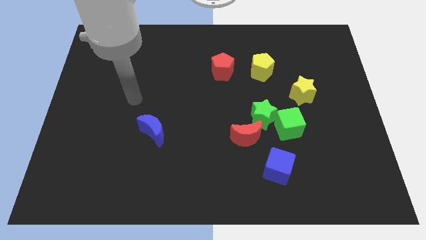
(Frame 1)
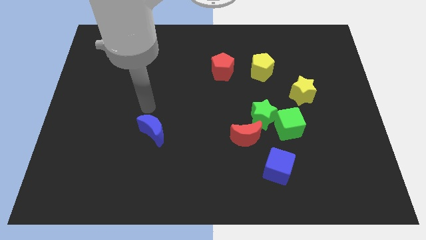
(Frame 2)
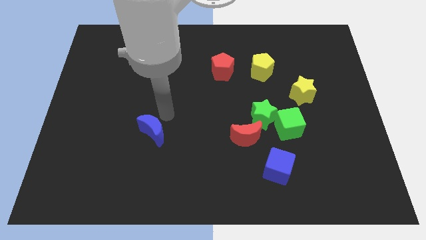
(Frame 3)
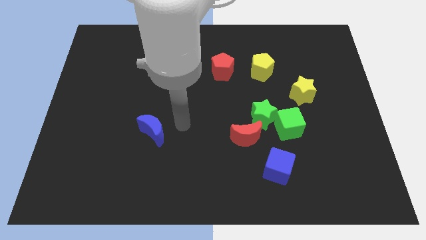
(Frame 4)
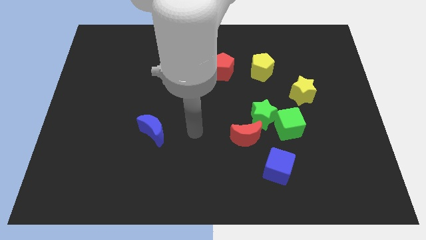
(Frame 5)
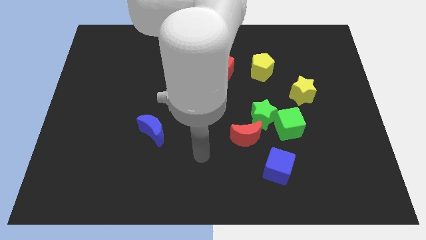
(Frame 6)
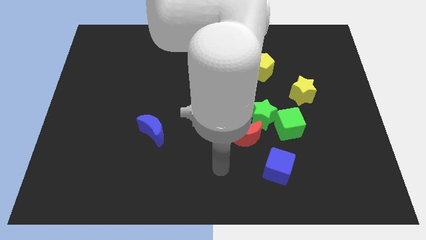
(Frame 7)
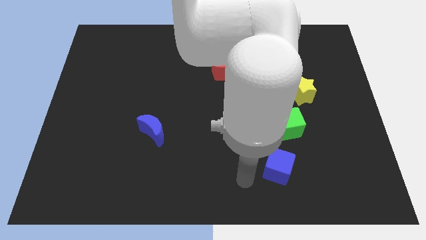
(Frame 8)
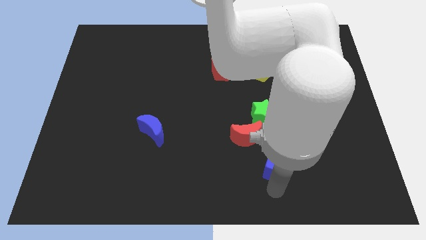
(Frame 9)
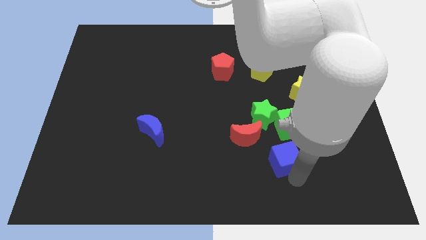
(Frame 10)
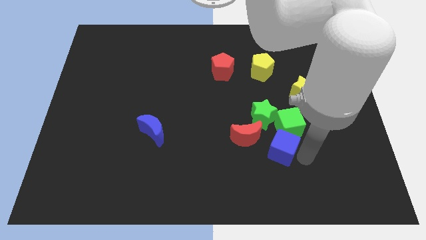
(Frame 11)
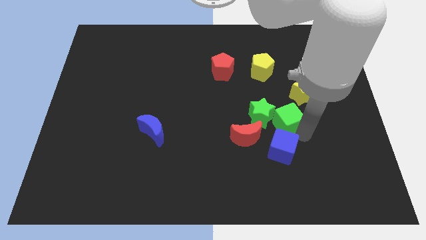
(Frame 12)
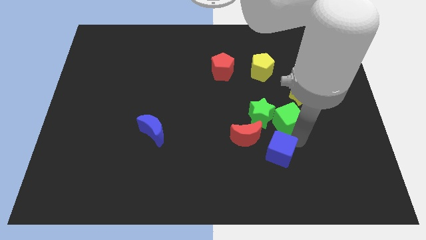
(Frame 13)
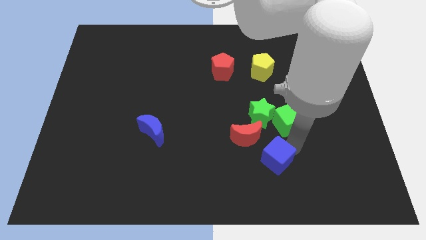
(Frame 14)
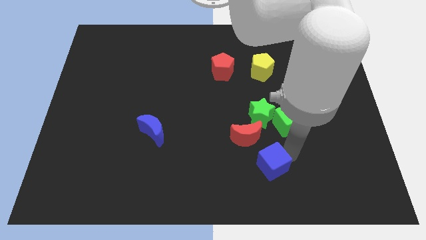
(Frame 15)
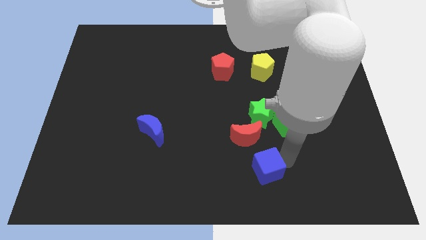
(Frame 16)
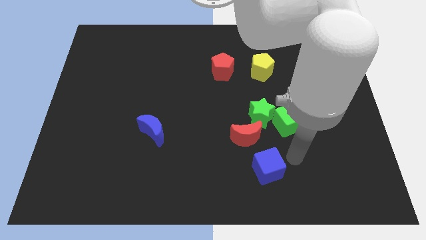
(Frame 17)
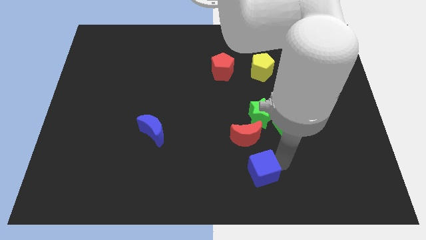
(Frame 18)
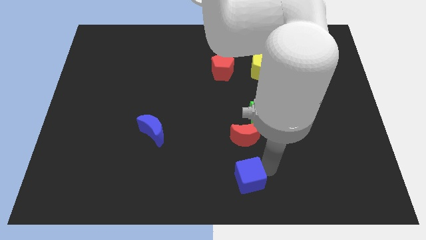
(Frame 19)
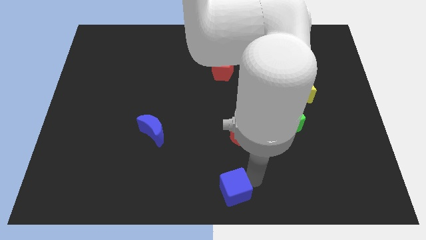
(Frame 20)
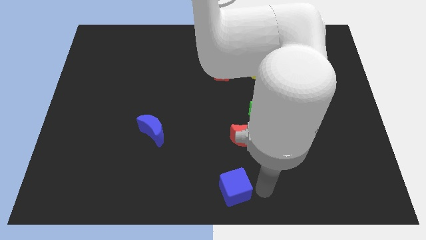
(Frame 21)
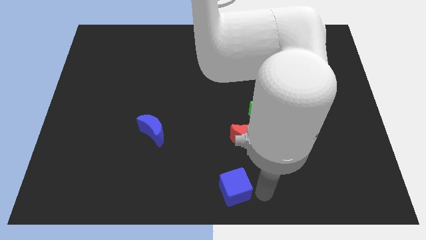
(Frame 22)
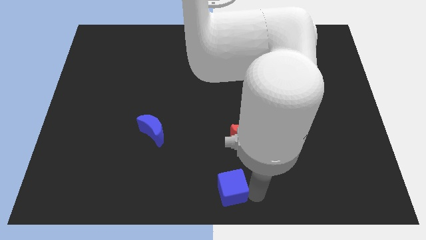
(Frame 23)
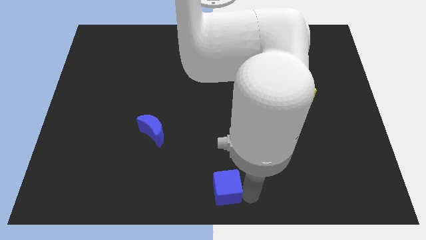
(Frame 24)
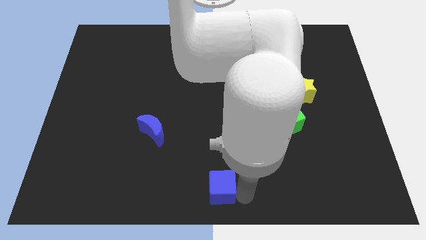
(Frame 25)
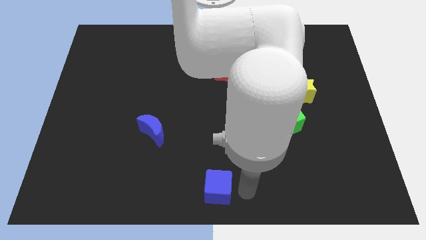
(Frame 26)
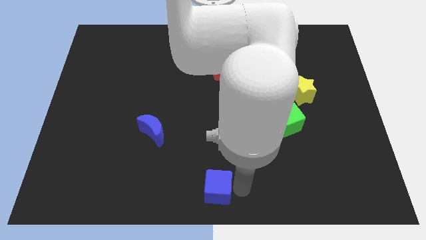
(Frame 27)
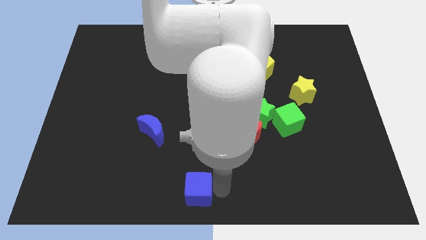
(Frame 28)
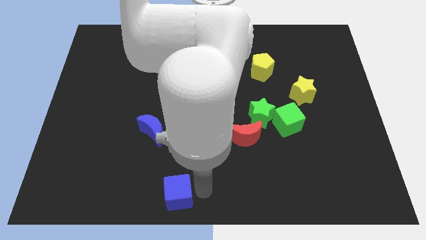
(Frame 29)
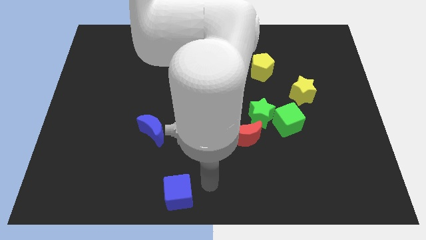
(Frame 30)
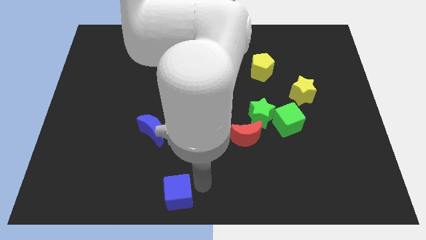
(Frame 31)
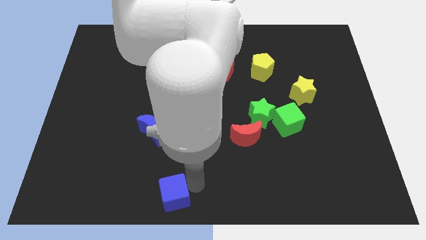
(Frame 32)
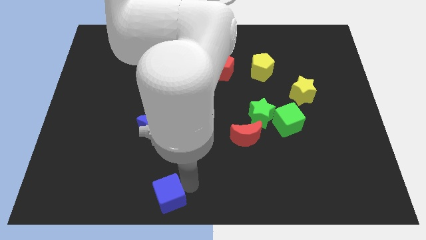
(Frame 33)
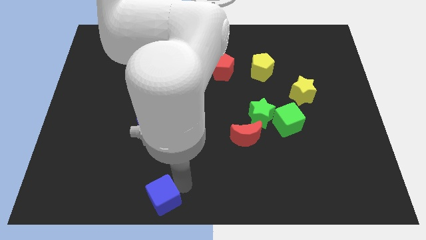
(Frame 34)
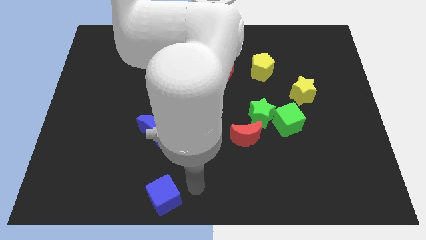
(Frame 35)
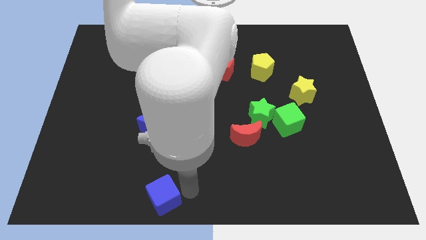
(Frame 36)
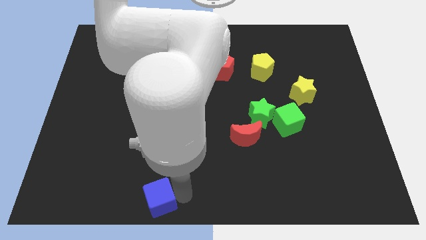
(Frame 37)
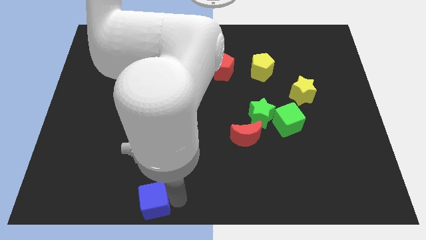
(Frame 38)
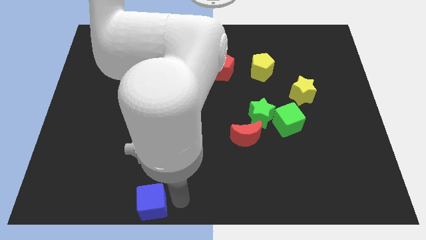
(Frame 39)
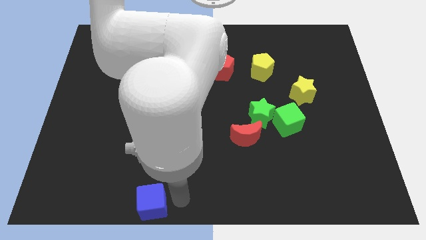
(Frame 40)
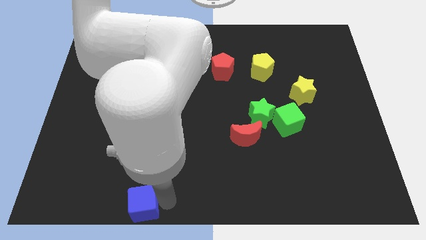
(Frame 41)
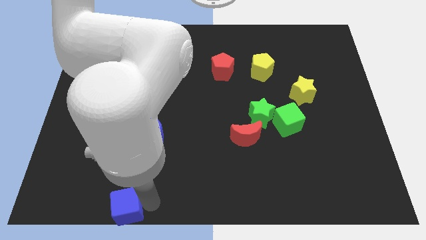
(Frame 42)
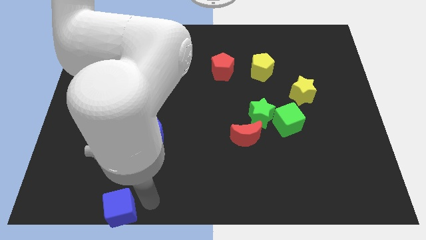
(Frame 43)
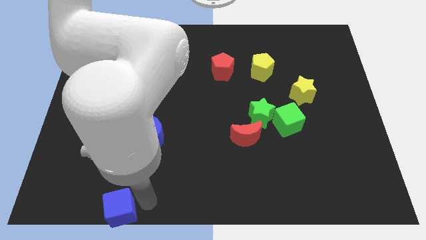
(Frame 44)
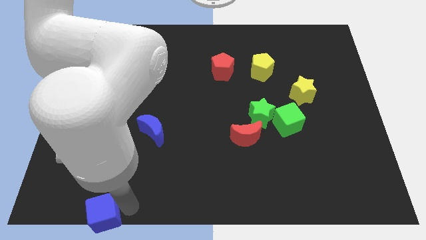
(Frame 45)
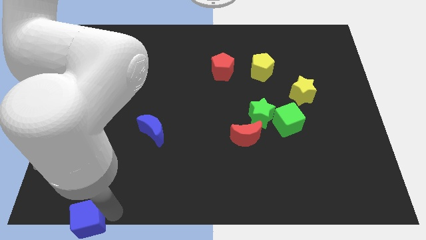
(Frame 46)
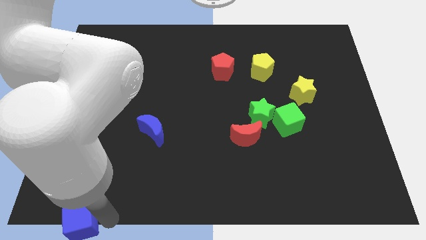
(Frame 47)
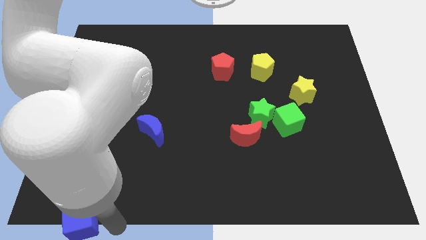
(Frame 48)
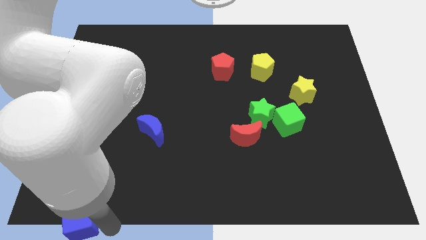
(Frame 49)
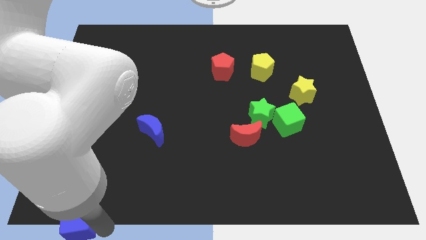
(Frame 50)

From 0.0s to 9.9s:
push the blue cube to the bottom left

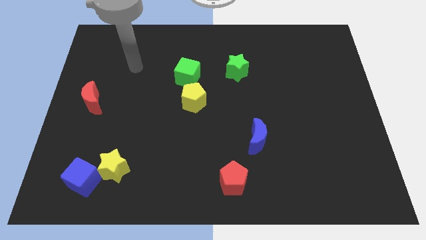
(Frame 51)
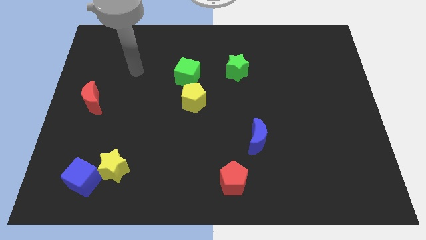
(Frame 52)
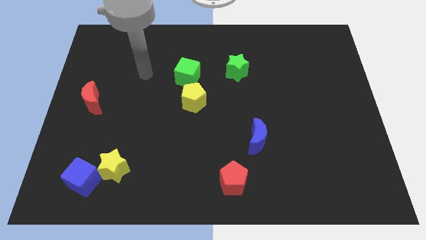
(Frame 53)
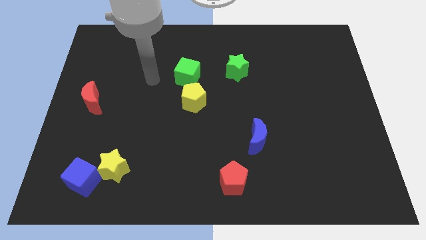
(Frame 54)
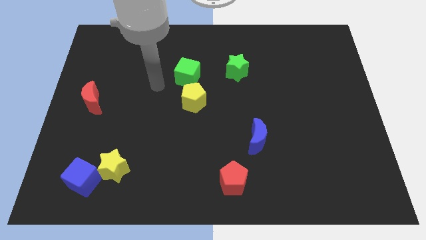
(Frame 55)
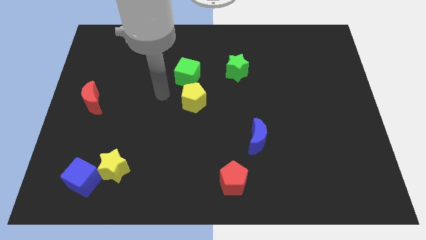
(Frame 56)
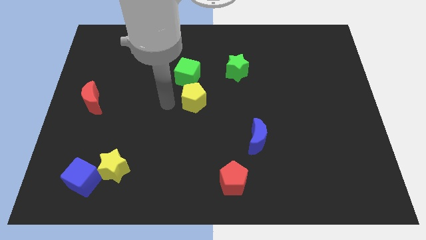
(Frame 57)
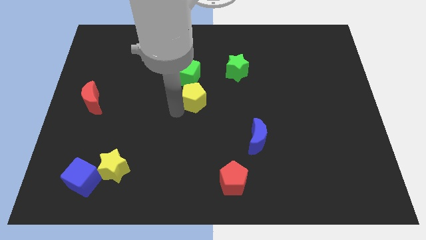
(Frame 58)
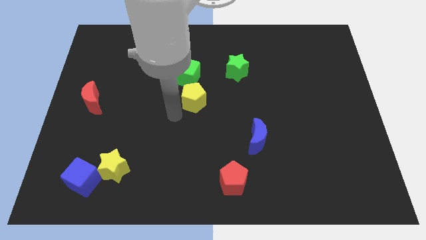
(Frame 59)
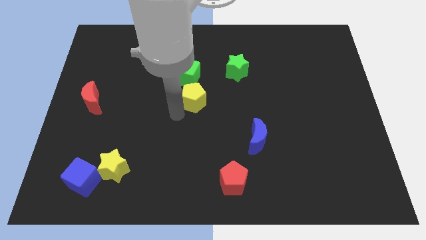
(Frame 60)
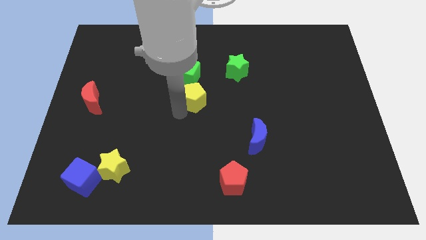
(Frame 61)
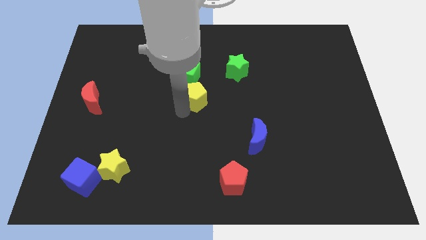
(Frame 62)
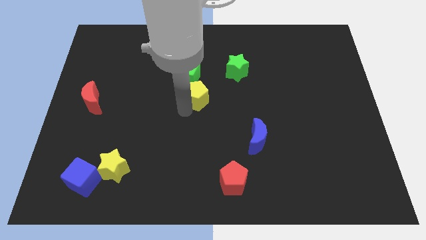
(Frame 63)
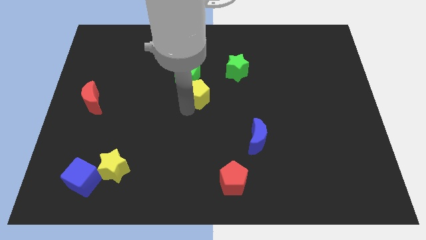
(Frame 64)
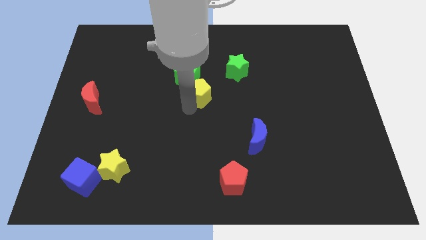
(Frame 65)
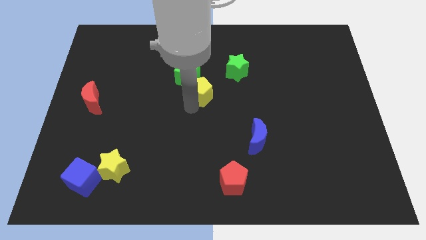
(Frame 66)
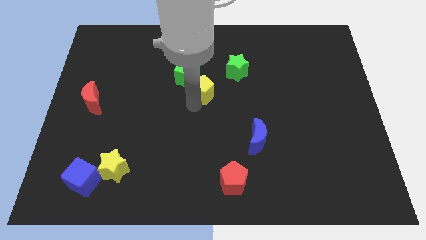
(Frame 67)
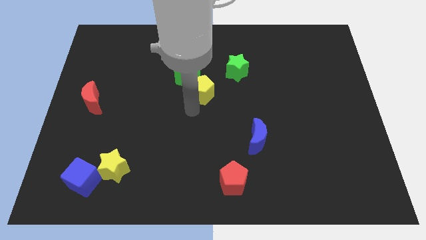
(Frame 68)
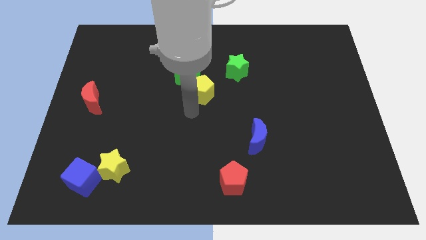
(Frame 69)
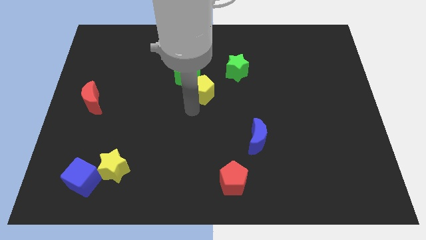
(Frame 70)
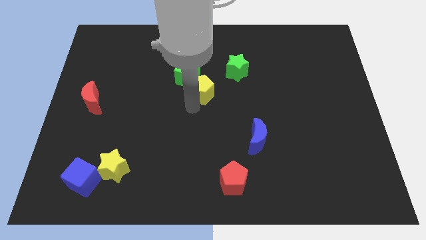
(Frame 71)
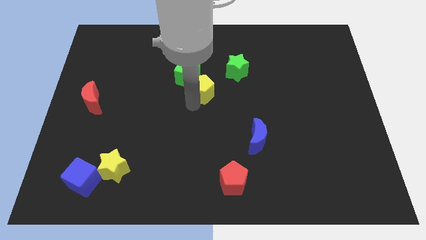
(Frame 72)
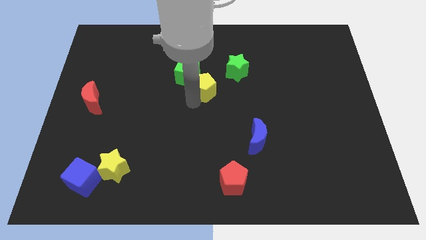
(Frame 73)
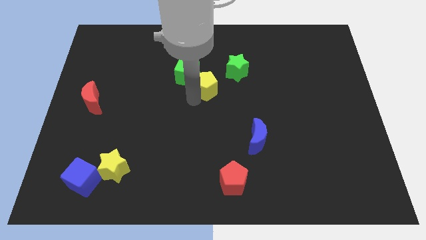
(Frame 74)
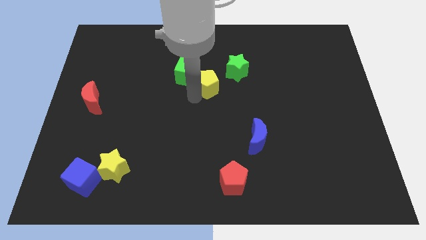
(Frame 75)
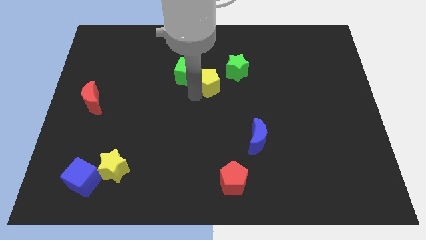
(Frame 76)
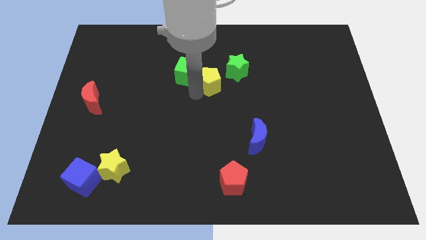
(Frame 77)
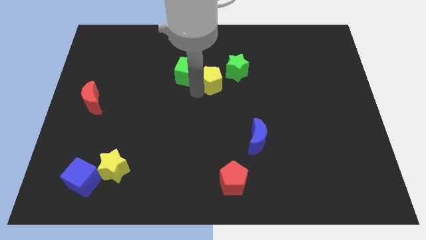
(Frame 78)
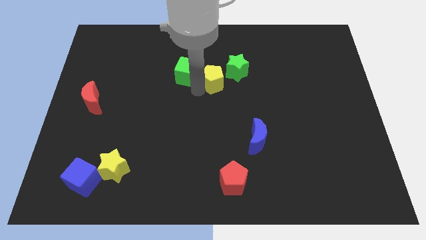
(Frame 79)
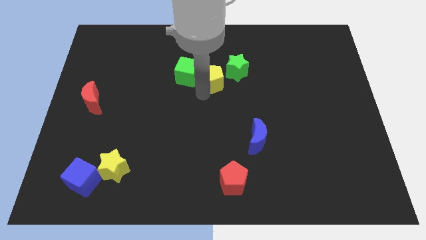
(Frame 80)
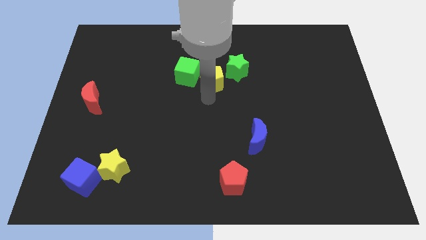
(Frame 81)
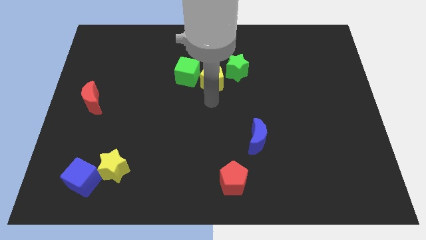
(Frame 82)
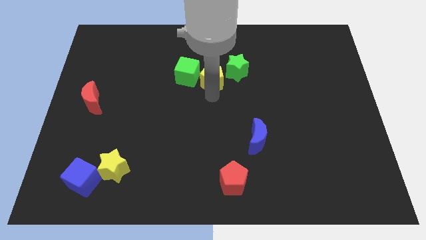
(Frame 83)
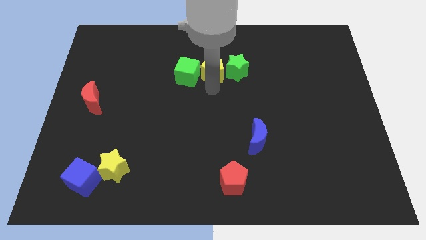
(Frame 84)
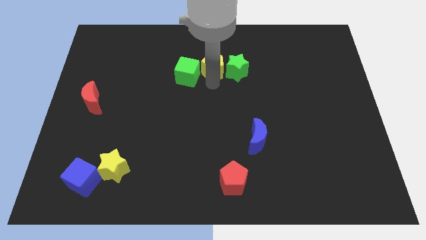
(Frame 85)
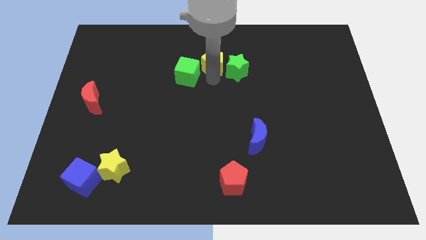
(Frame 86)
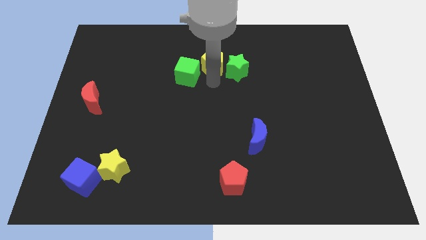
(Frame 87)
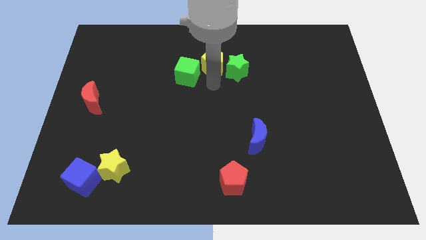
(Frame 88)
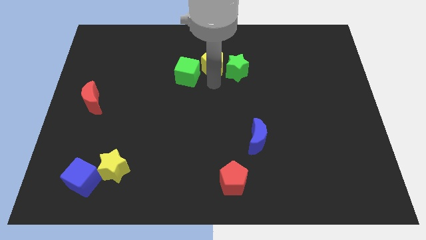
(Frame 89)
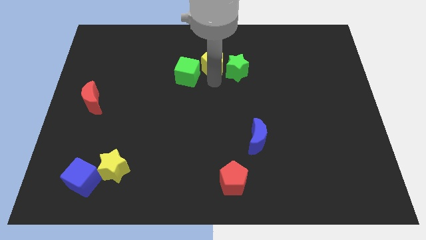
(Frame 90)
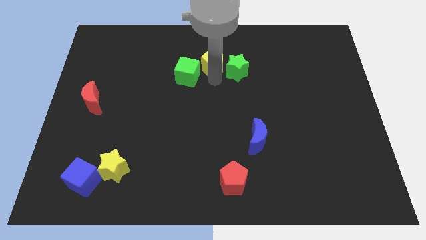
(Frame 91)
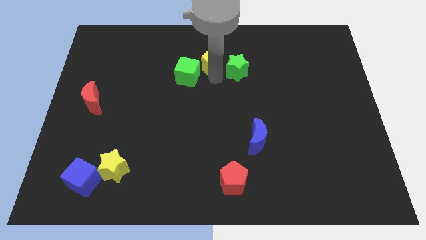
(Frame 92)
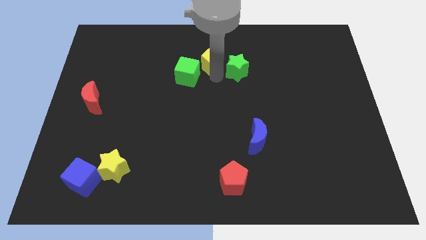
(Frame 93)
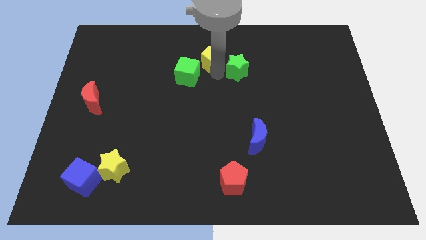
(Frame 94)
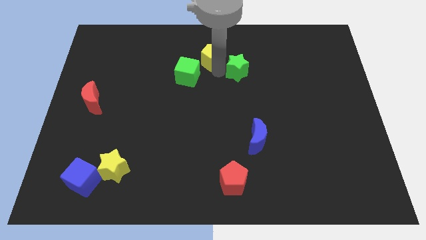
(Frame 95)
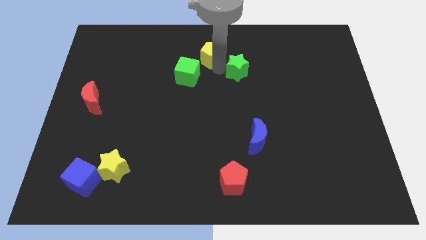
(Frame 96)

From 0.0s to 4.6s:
move the yellow pentagon to the top
